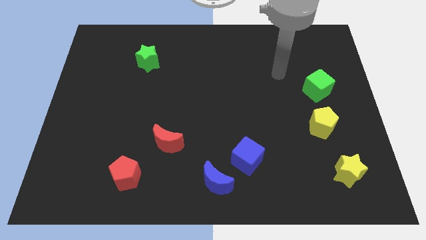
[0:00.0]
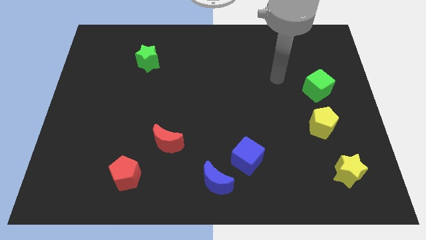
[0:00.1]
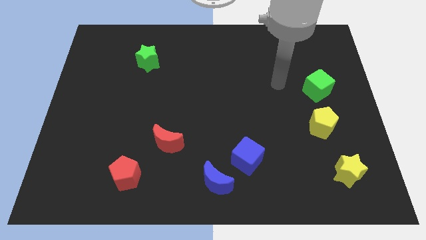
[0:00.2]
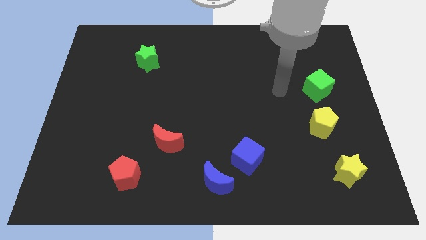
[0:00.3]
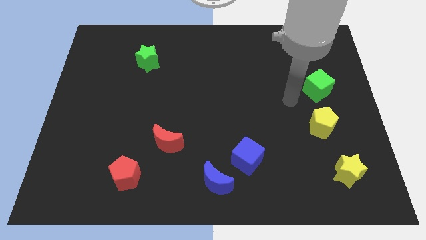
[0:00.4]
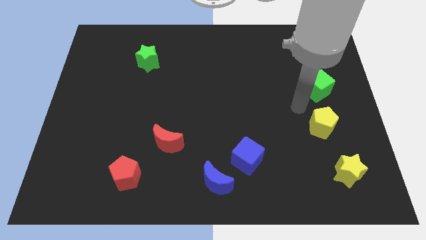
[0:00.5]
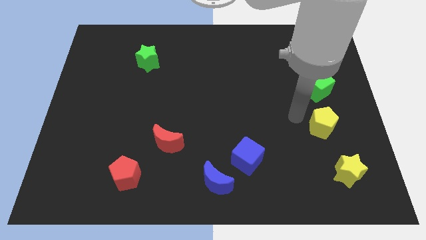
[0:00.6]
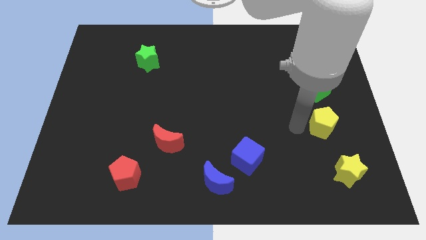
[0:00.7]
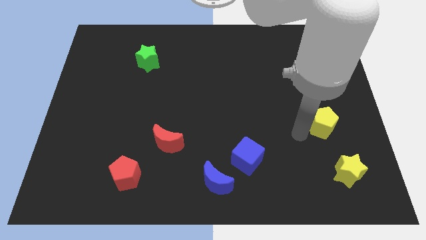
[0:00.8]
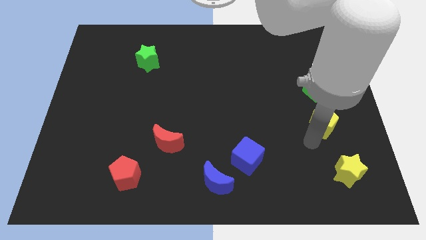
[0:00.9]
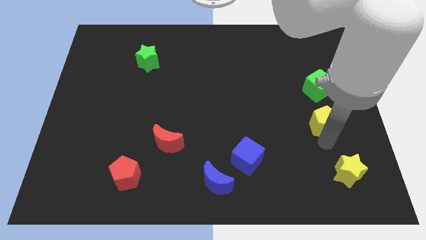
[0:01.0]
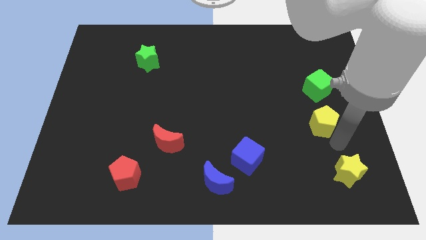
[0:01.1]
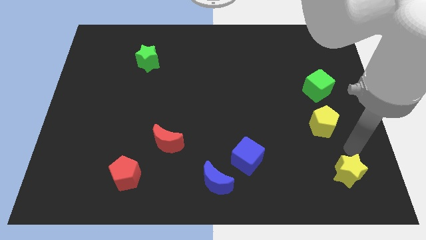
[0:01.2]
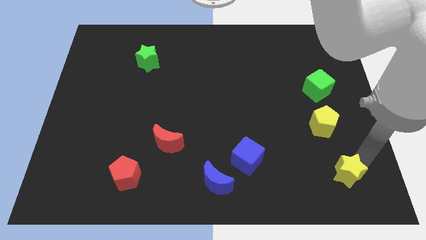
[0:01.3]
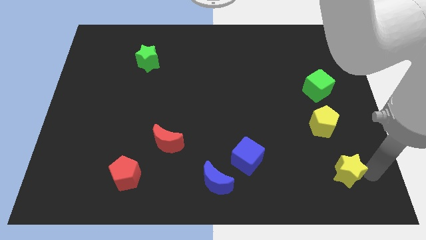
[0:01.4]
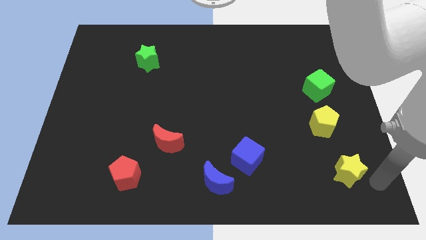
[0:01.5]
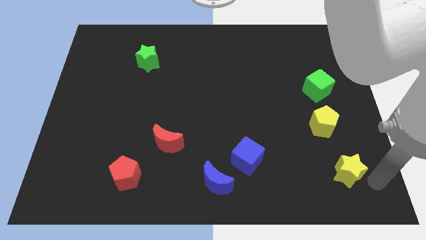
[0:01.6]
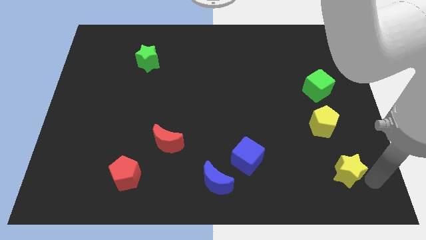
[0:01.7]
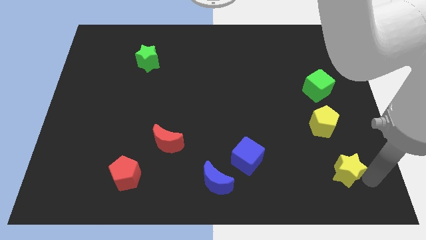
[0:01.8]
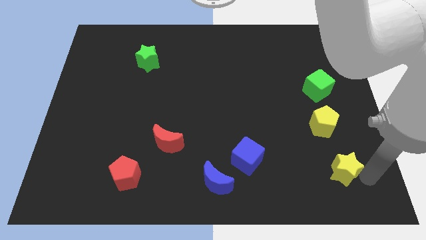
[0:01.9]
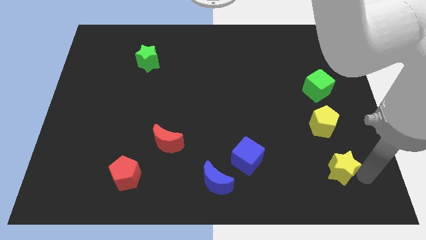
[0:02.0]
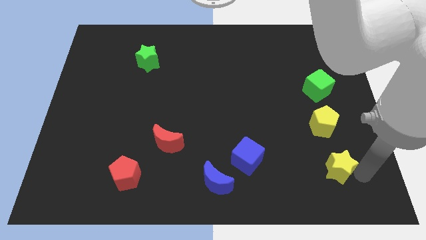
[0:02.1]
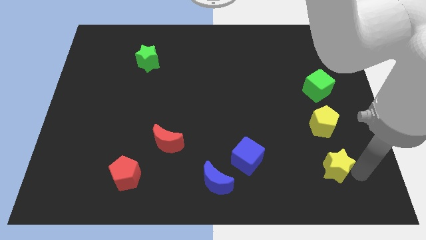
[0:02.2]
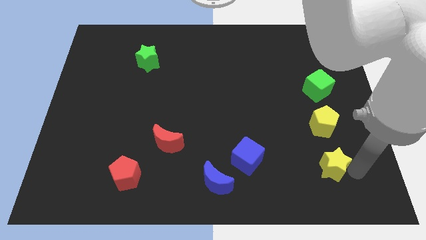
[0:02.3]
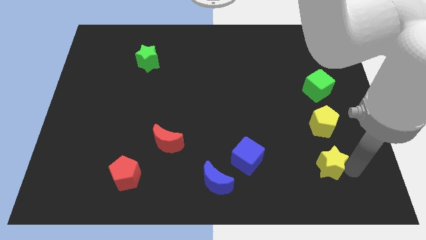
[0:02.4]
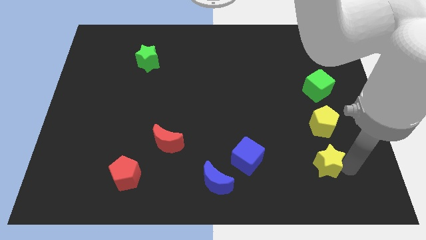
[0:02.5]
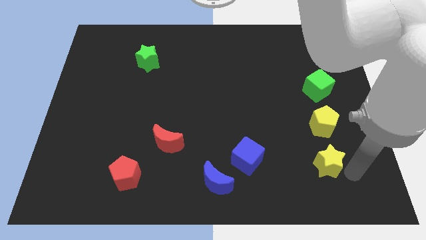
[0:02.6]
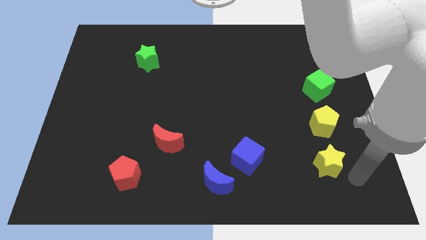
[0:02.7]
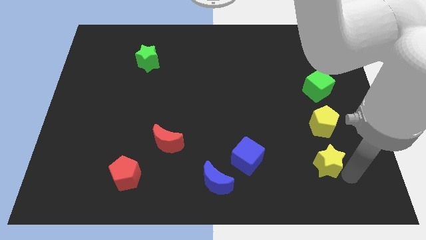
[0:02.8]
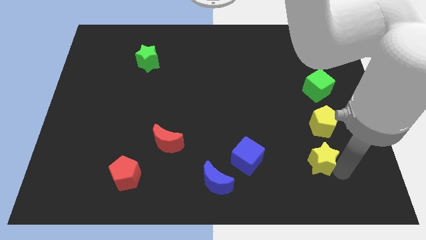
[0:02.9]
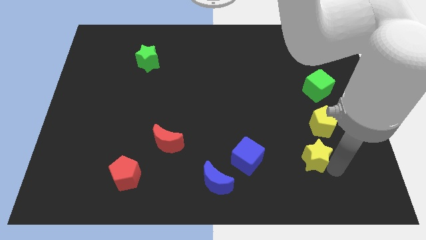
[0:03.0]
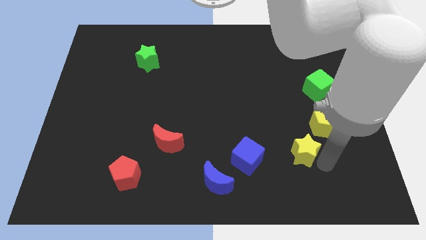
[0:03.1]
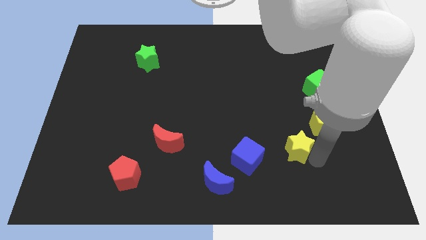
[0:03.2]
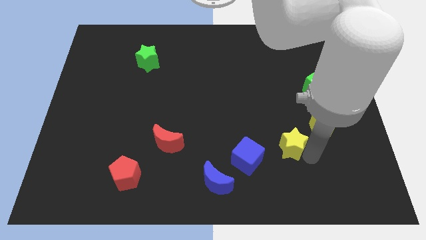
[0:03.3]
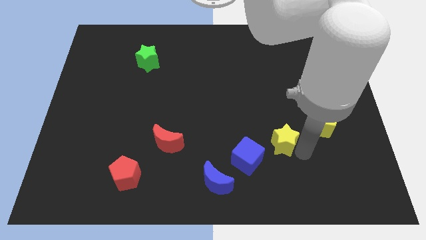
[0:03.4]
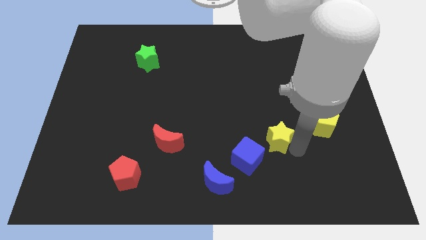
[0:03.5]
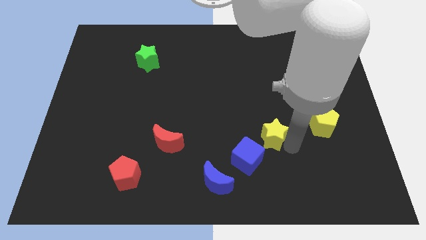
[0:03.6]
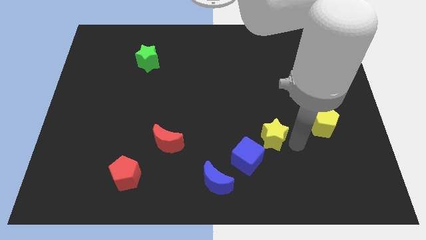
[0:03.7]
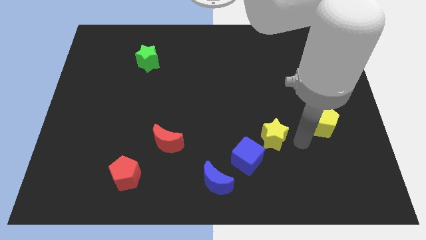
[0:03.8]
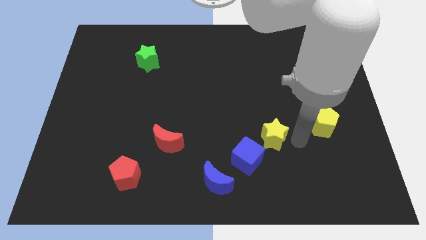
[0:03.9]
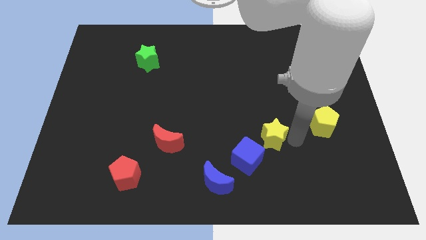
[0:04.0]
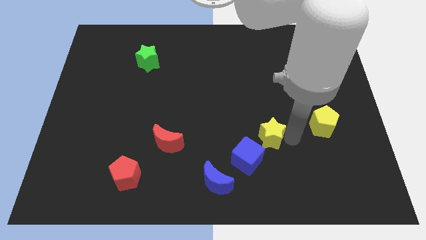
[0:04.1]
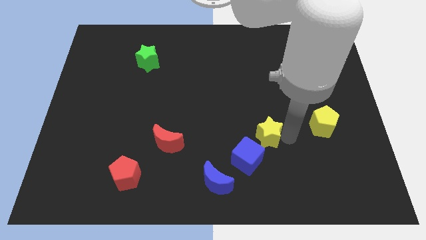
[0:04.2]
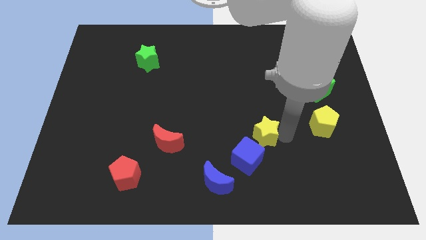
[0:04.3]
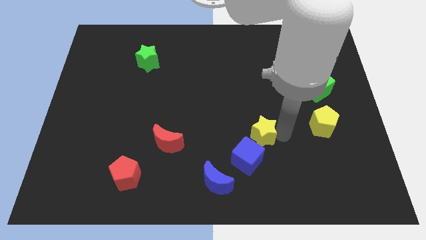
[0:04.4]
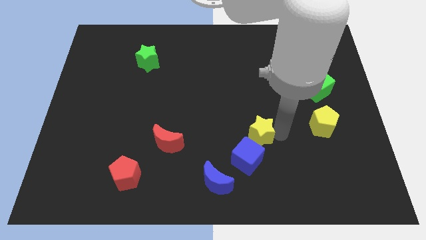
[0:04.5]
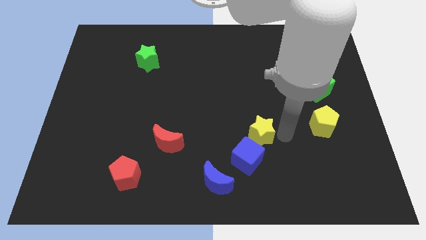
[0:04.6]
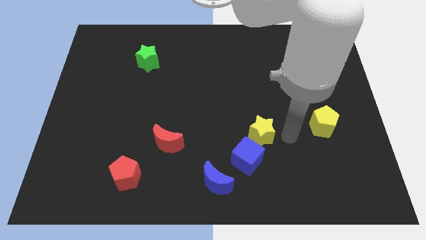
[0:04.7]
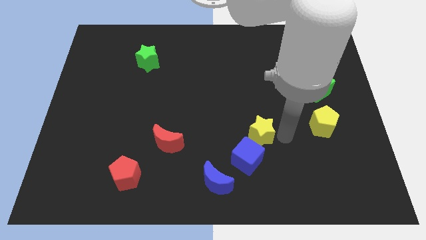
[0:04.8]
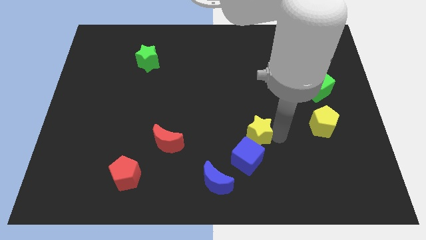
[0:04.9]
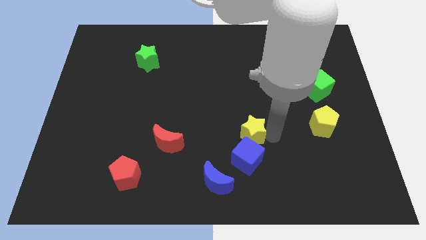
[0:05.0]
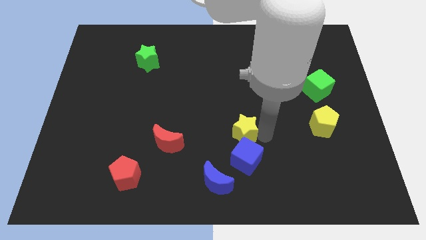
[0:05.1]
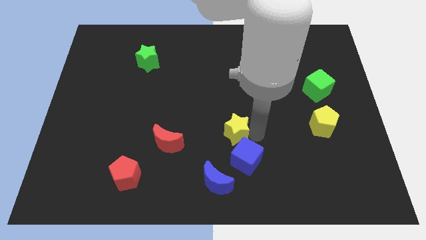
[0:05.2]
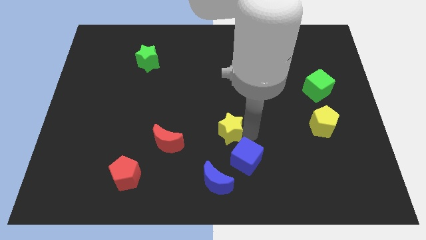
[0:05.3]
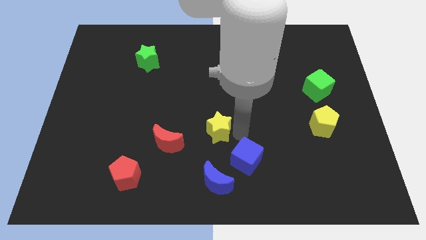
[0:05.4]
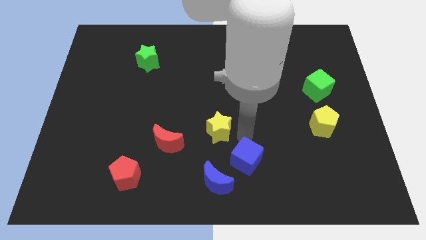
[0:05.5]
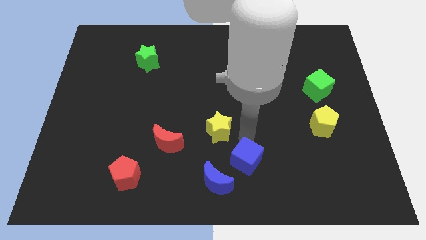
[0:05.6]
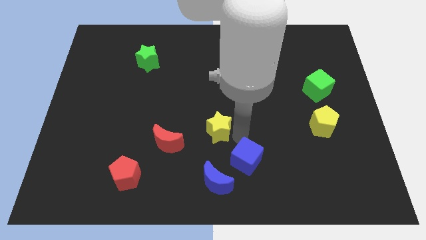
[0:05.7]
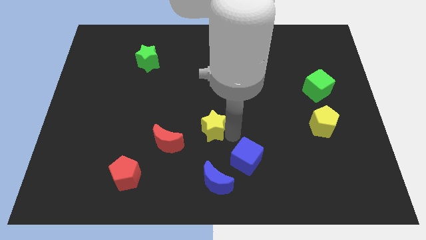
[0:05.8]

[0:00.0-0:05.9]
move the yellow star to the top right side of the red moon

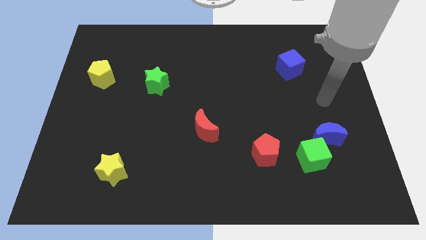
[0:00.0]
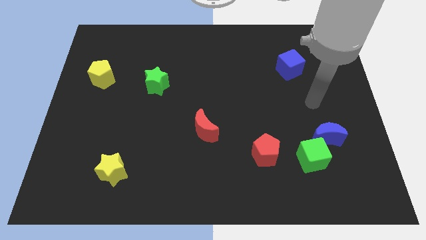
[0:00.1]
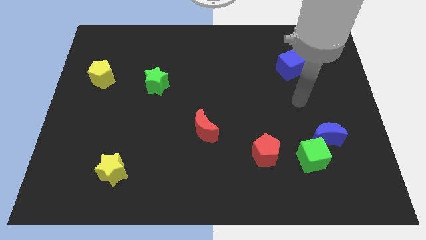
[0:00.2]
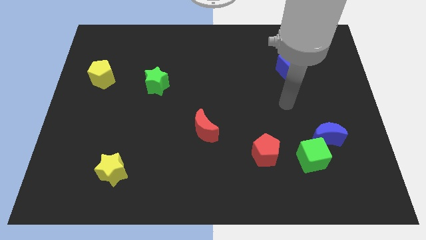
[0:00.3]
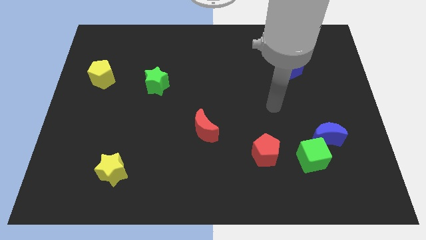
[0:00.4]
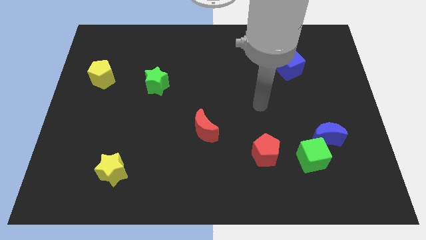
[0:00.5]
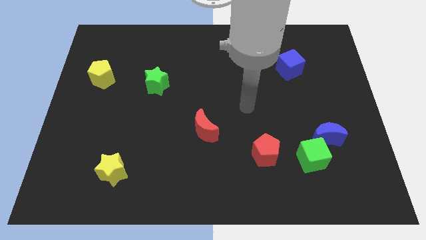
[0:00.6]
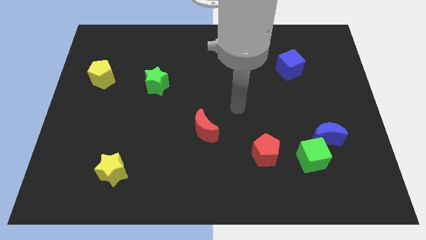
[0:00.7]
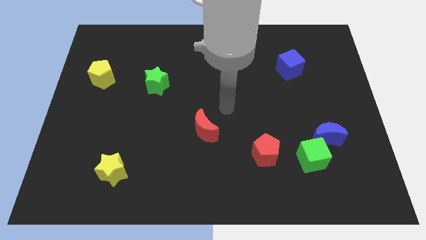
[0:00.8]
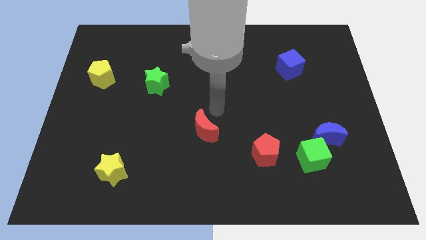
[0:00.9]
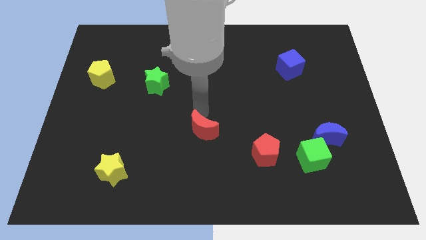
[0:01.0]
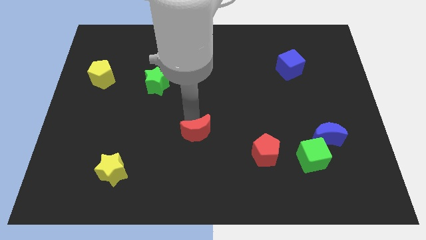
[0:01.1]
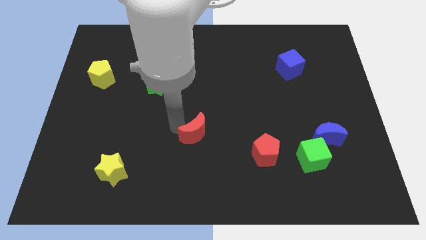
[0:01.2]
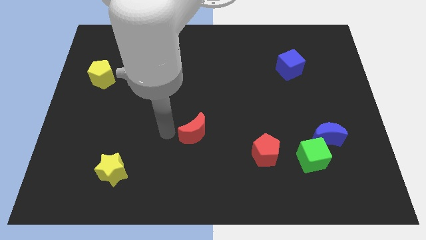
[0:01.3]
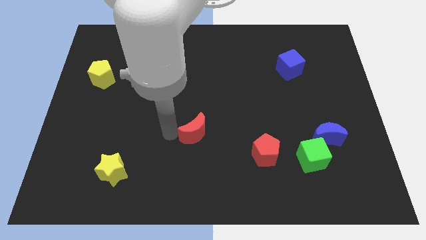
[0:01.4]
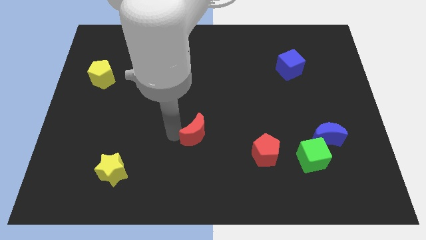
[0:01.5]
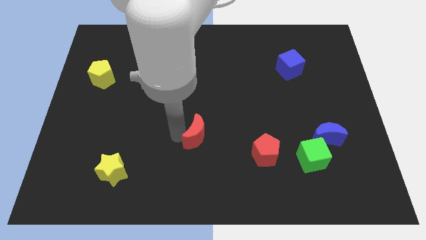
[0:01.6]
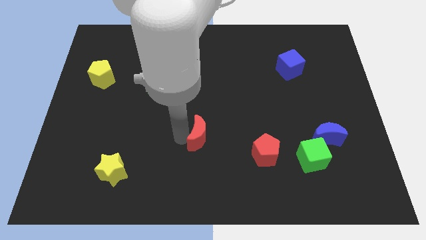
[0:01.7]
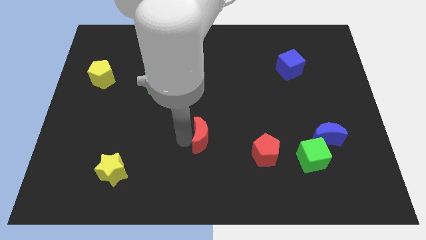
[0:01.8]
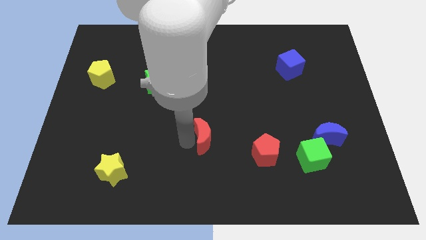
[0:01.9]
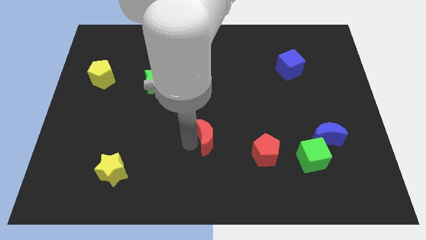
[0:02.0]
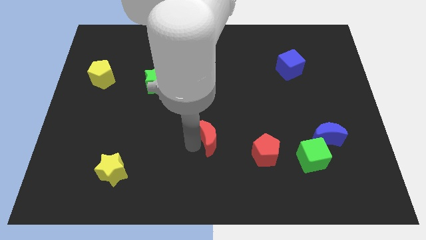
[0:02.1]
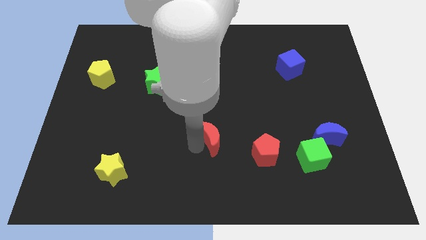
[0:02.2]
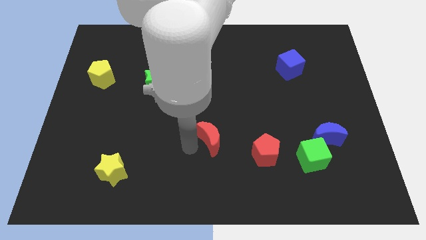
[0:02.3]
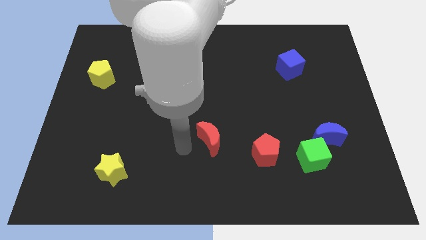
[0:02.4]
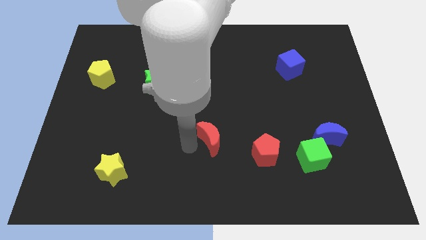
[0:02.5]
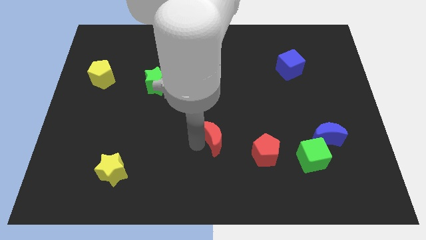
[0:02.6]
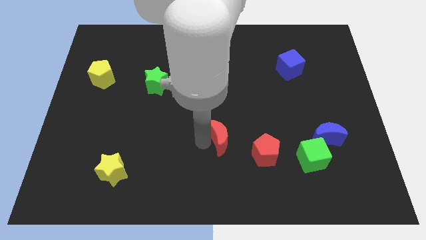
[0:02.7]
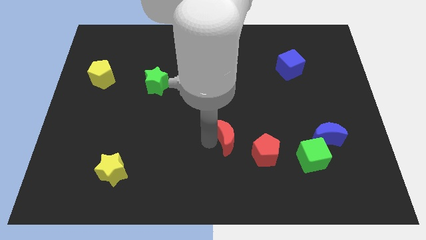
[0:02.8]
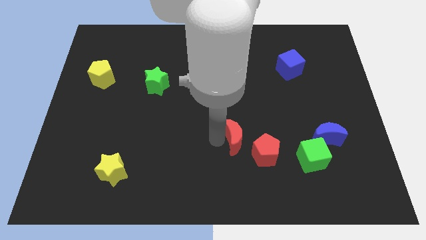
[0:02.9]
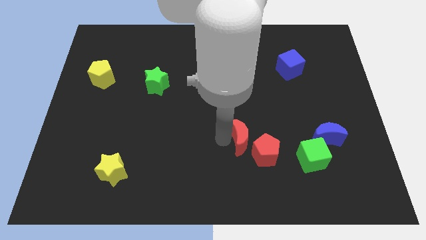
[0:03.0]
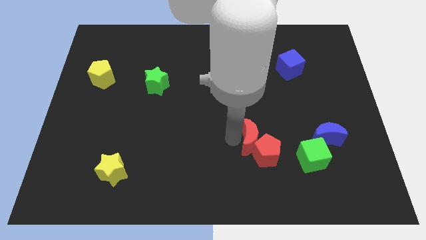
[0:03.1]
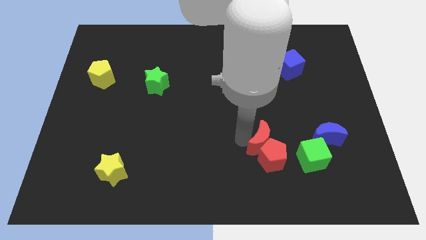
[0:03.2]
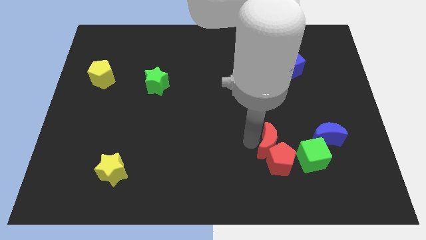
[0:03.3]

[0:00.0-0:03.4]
slide the red moon diagonally up and to the left of the green cube
